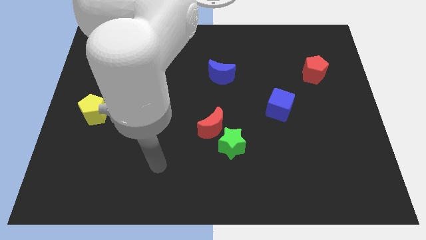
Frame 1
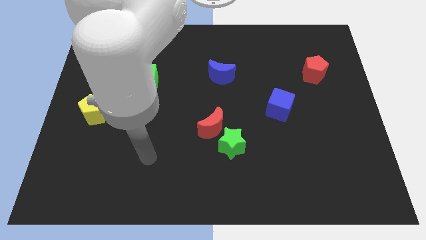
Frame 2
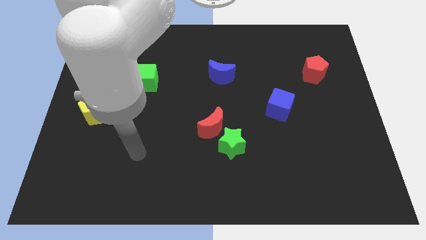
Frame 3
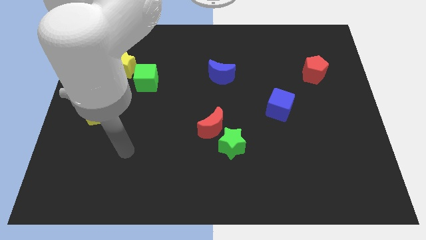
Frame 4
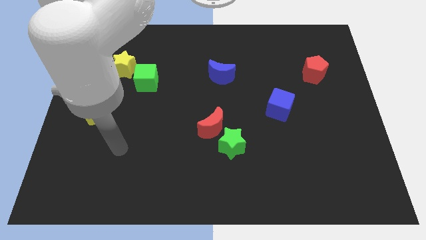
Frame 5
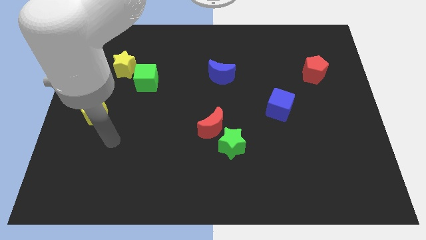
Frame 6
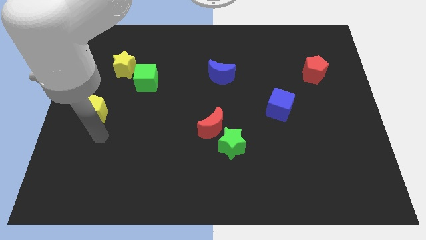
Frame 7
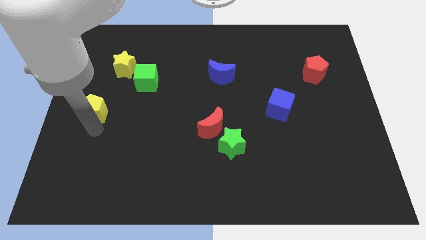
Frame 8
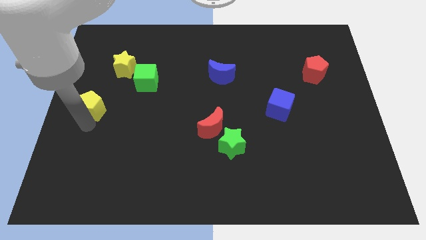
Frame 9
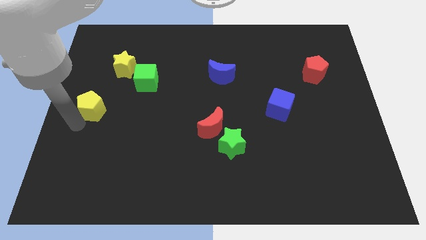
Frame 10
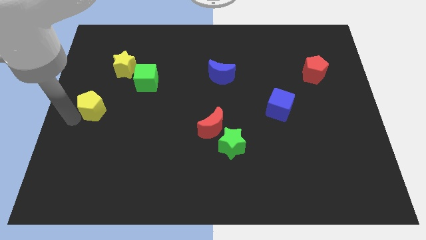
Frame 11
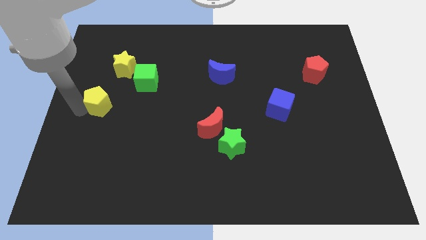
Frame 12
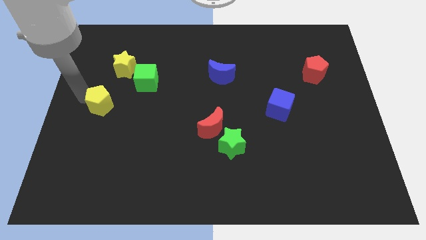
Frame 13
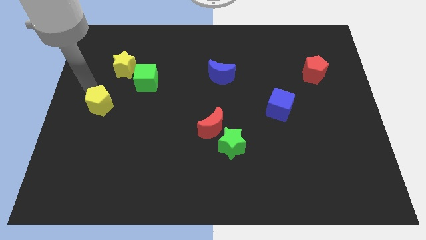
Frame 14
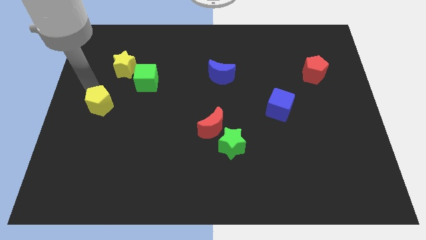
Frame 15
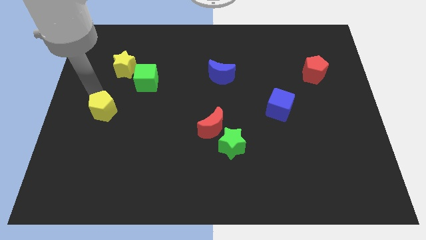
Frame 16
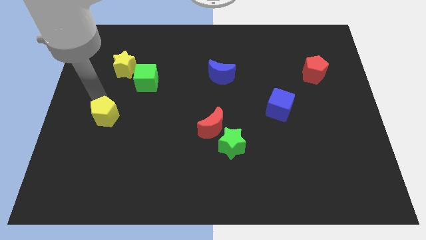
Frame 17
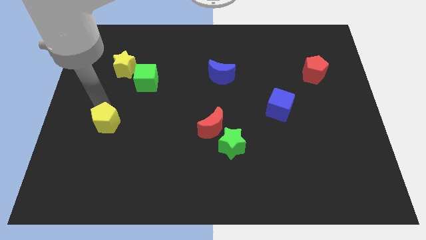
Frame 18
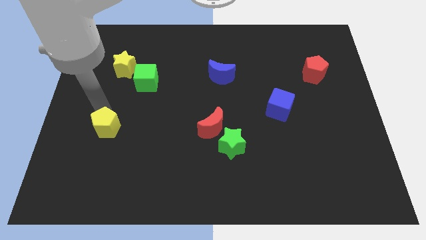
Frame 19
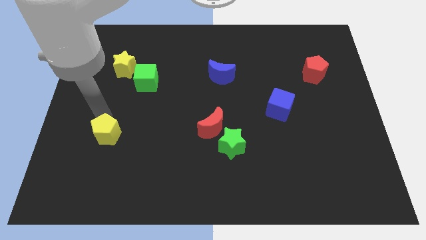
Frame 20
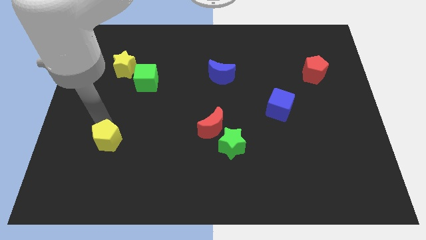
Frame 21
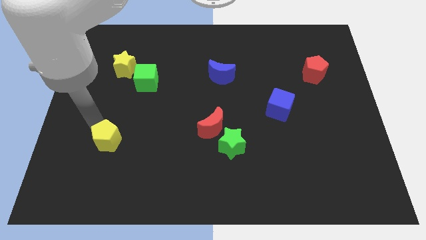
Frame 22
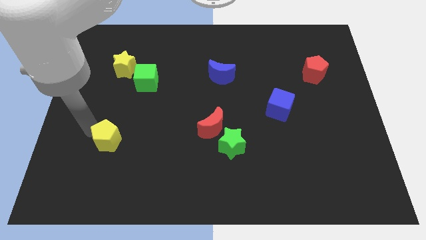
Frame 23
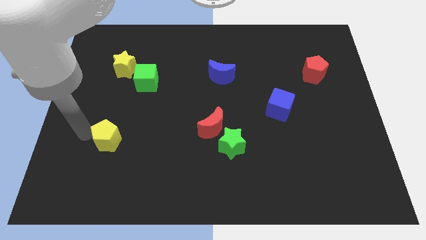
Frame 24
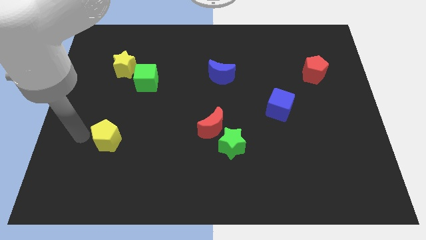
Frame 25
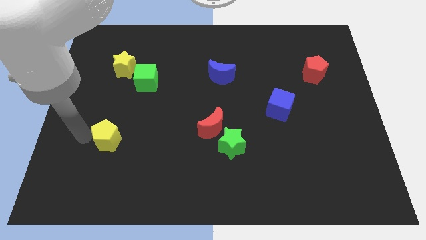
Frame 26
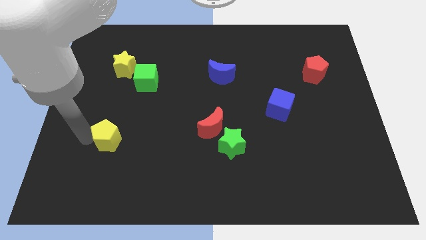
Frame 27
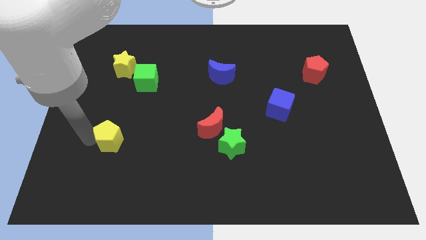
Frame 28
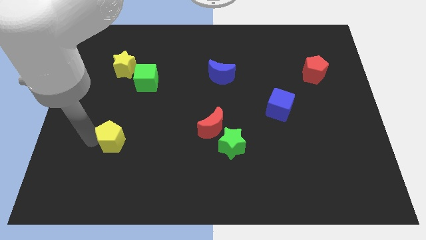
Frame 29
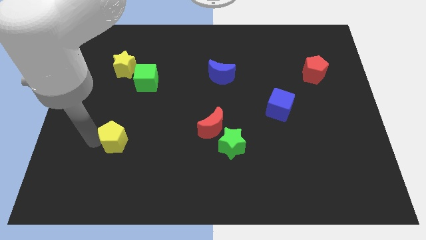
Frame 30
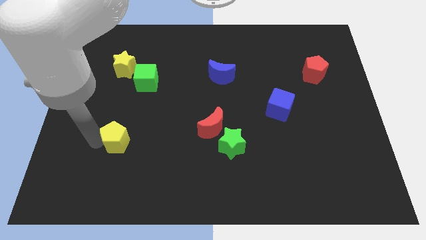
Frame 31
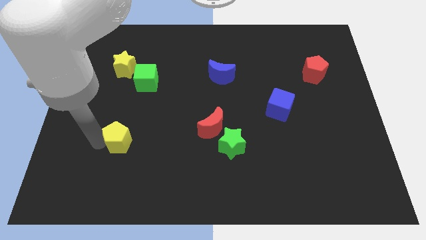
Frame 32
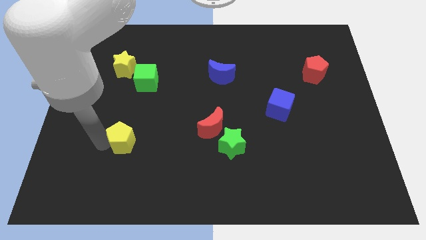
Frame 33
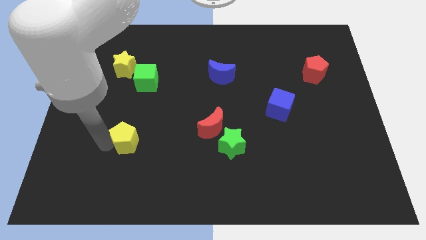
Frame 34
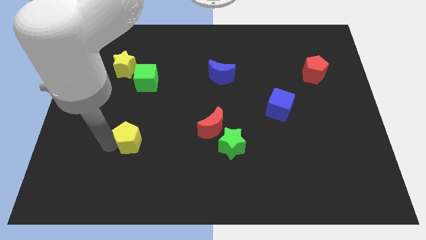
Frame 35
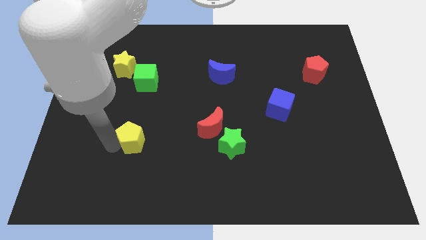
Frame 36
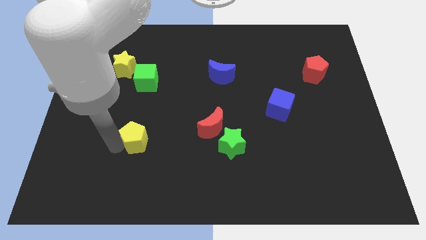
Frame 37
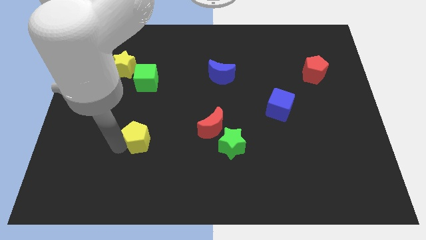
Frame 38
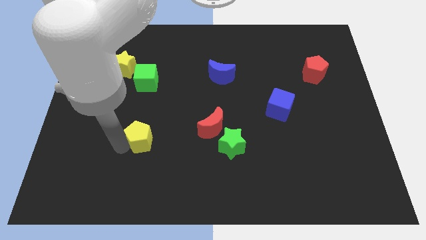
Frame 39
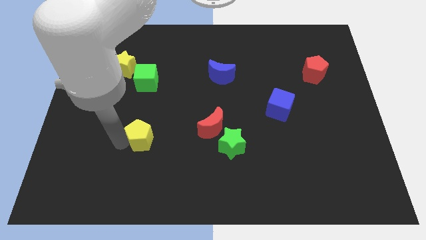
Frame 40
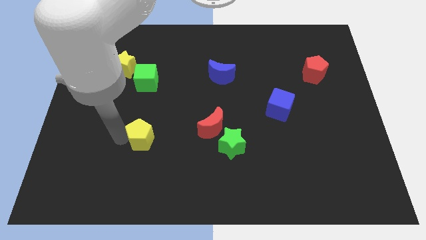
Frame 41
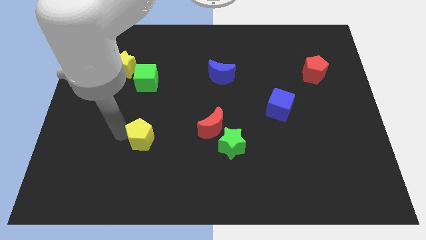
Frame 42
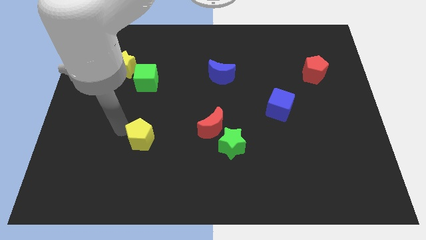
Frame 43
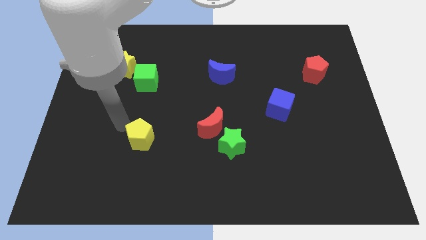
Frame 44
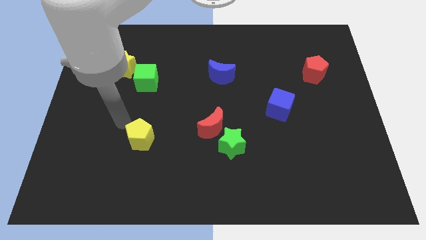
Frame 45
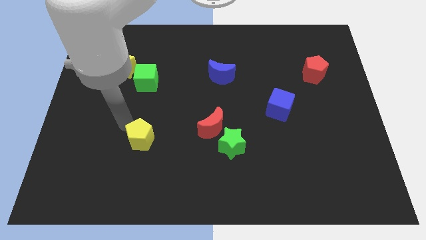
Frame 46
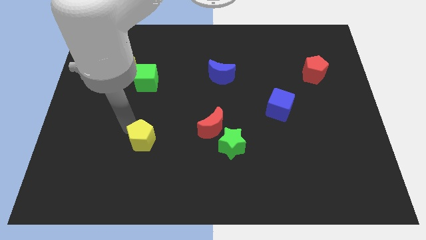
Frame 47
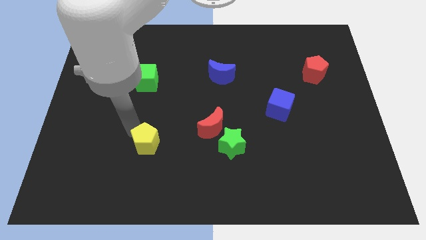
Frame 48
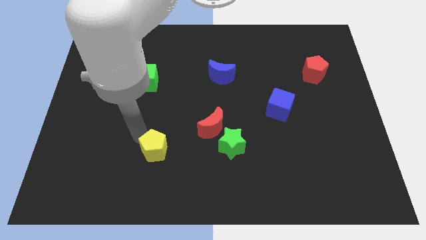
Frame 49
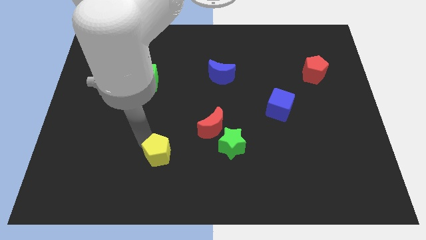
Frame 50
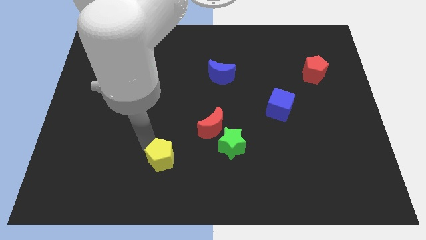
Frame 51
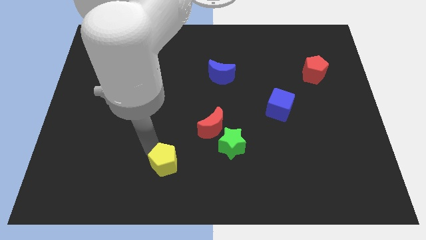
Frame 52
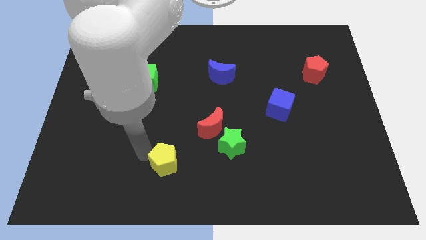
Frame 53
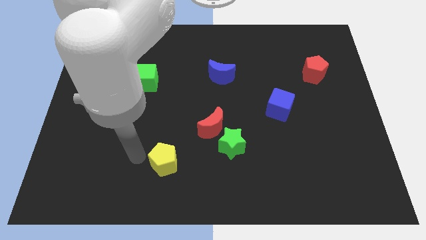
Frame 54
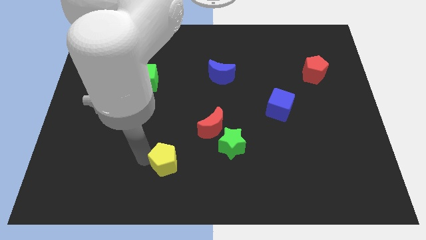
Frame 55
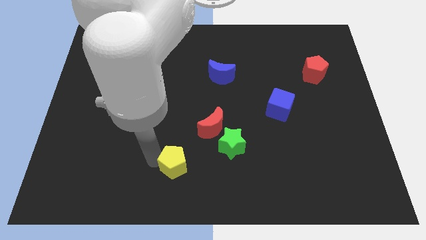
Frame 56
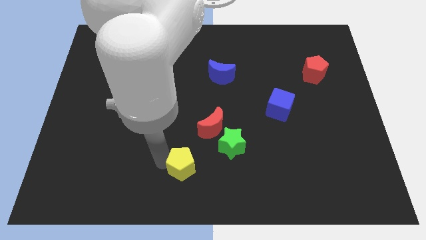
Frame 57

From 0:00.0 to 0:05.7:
push the yellow pentagon to the bottom left side of the green star

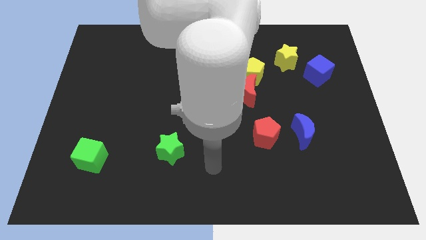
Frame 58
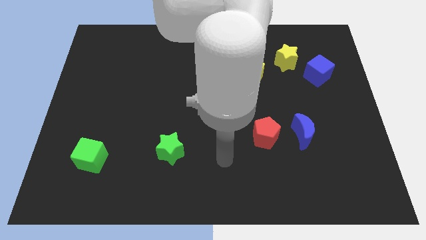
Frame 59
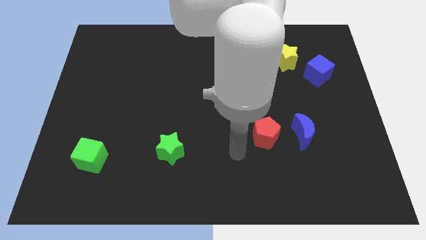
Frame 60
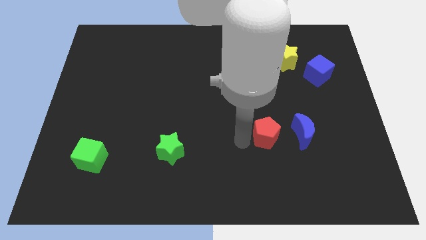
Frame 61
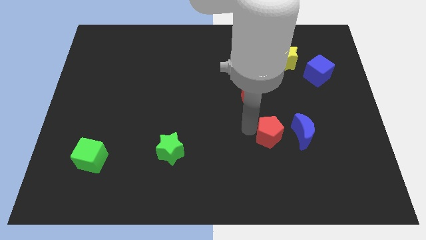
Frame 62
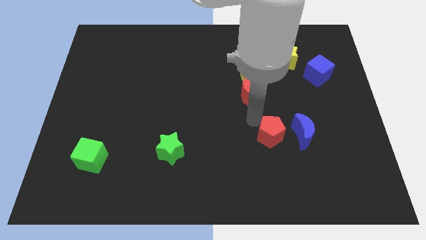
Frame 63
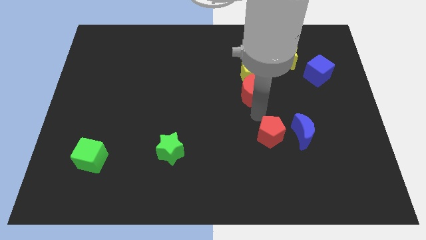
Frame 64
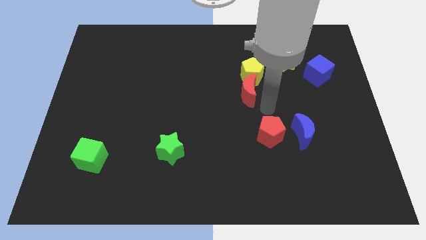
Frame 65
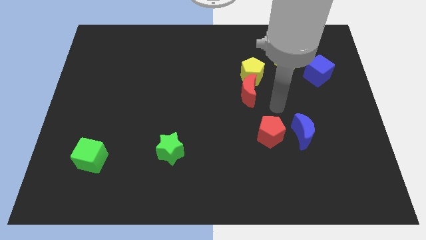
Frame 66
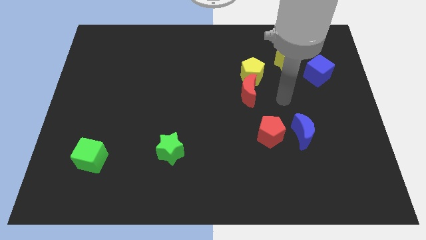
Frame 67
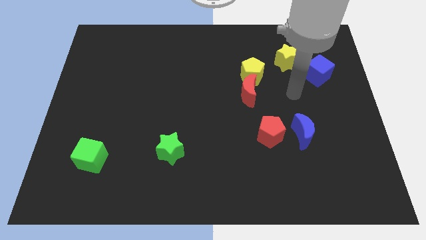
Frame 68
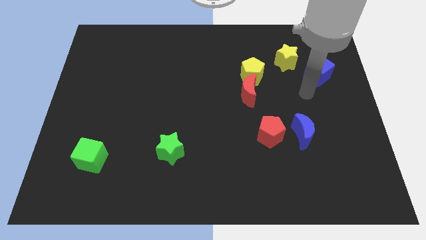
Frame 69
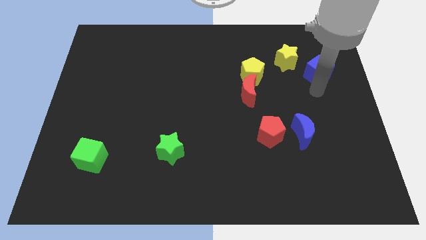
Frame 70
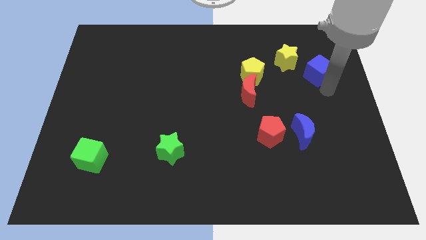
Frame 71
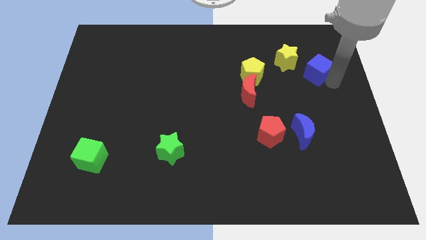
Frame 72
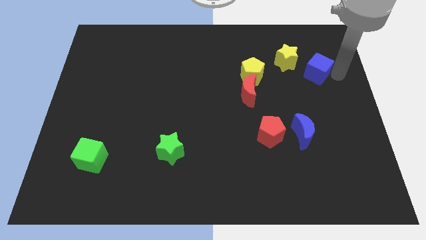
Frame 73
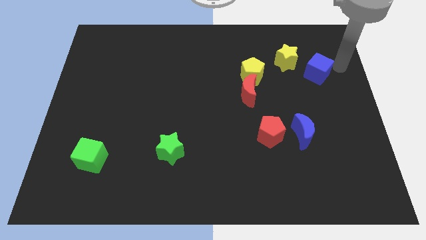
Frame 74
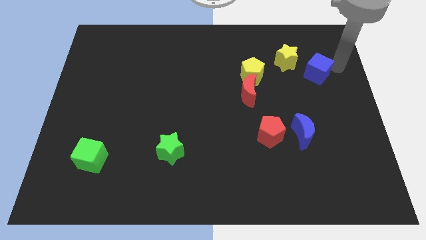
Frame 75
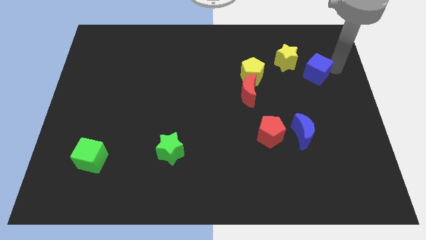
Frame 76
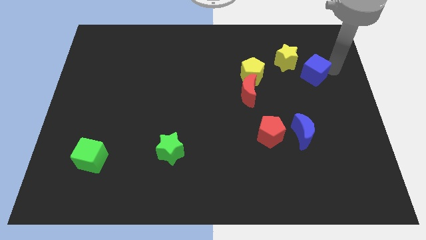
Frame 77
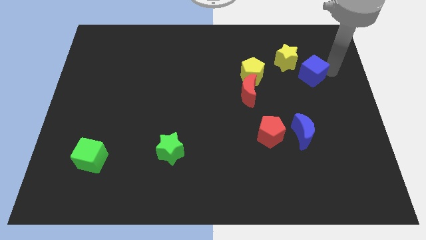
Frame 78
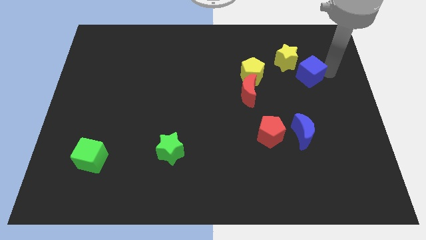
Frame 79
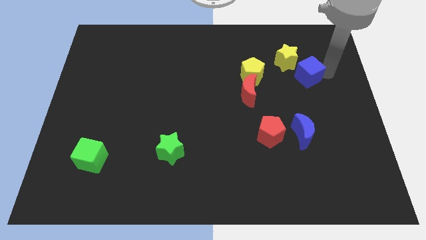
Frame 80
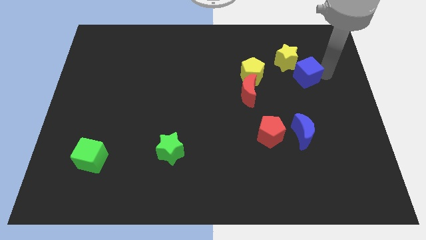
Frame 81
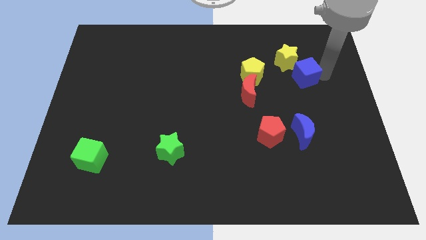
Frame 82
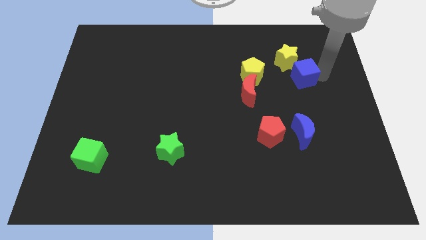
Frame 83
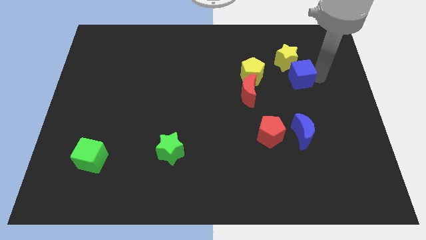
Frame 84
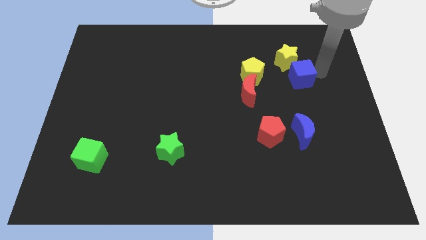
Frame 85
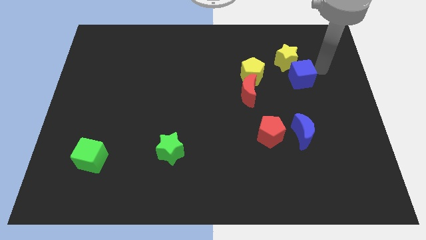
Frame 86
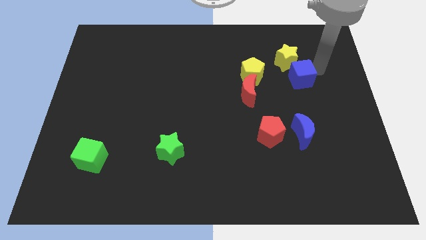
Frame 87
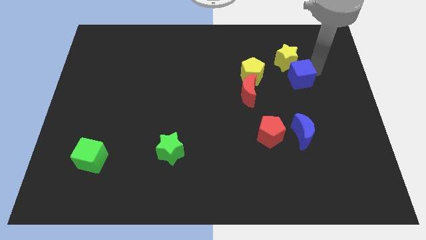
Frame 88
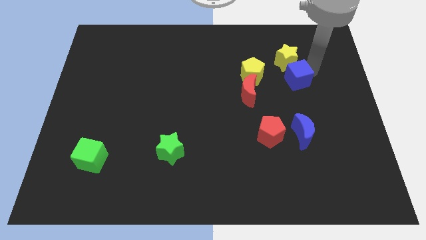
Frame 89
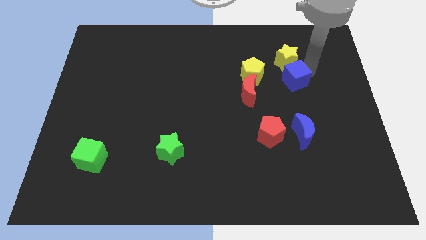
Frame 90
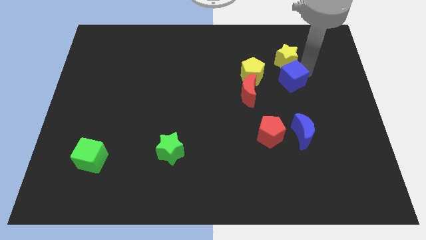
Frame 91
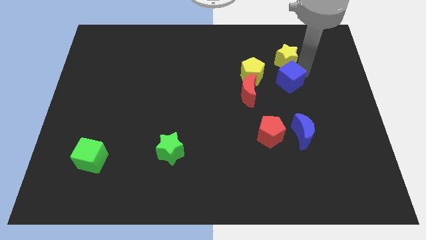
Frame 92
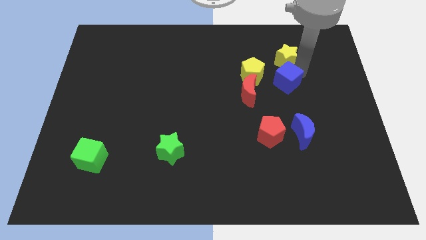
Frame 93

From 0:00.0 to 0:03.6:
slide the blue cube diagonally down and to the right of the yellow pentagon
